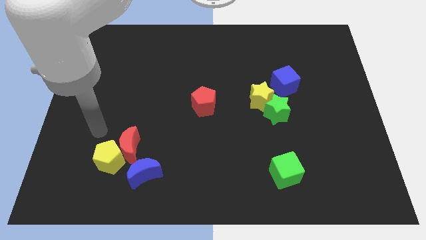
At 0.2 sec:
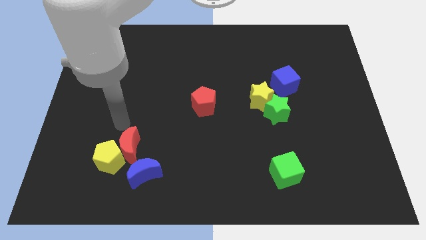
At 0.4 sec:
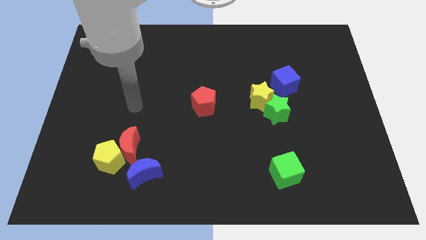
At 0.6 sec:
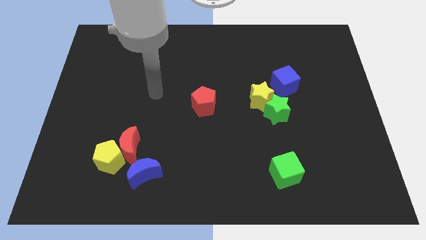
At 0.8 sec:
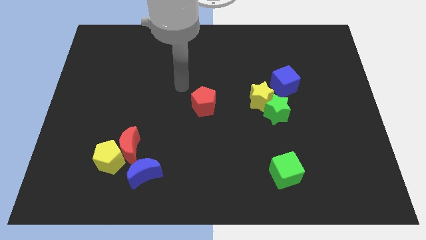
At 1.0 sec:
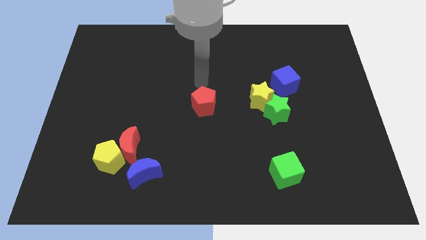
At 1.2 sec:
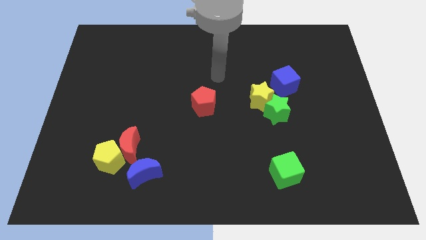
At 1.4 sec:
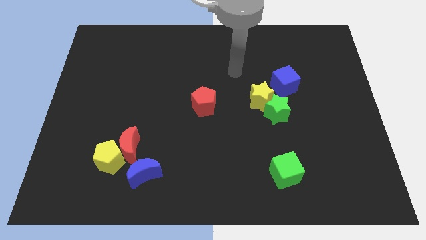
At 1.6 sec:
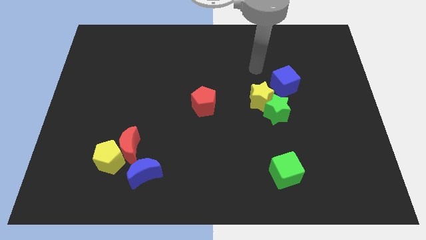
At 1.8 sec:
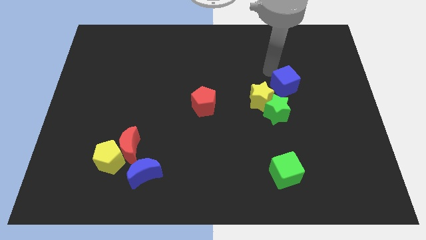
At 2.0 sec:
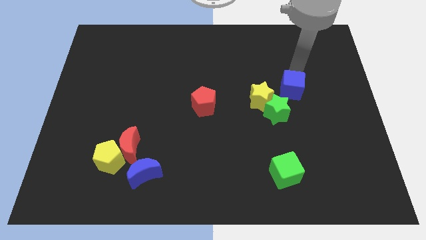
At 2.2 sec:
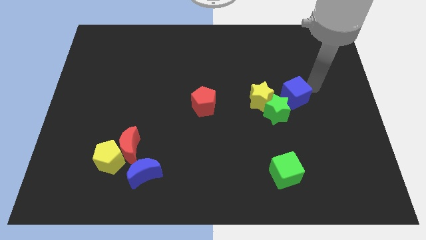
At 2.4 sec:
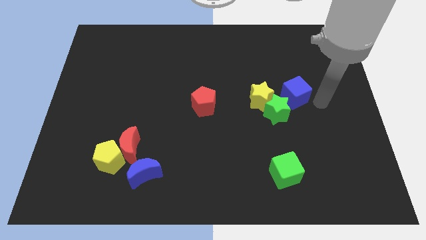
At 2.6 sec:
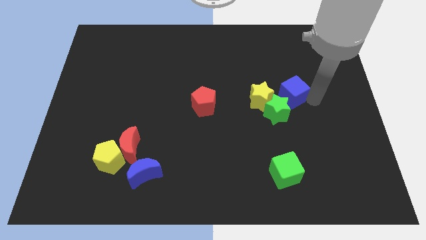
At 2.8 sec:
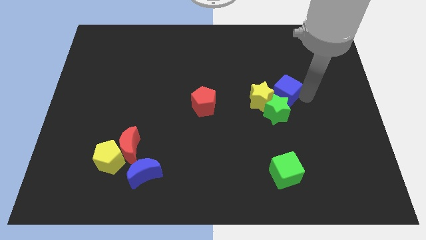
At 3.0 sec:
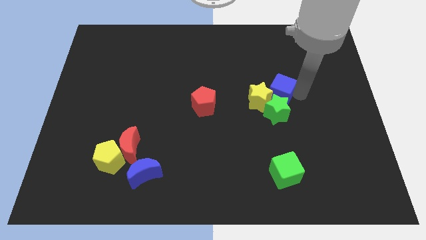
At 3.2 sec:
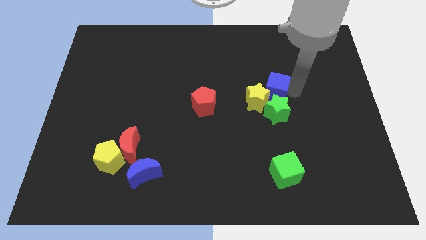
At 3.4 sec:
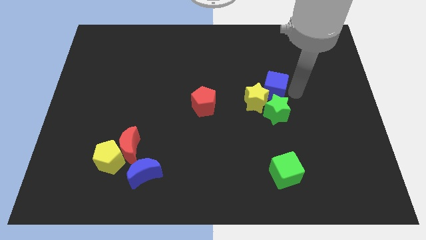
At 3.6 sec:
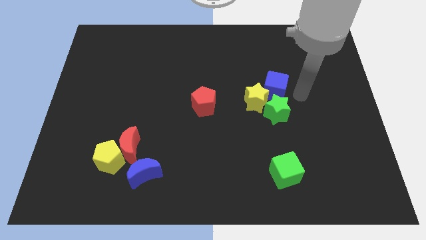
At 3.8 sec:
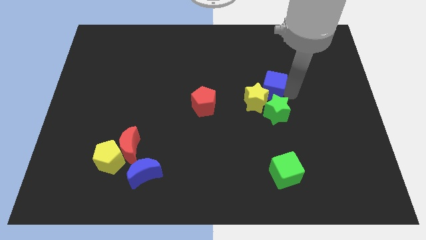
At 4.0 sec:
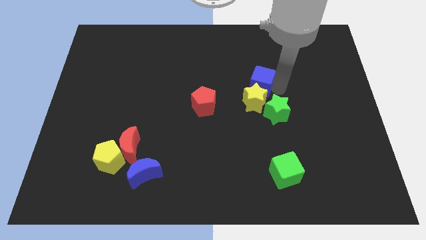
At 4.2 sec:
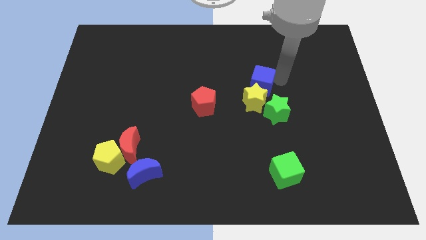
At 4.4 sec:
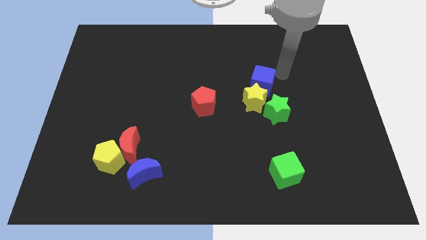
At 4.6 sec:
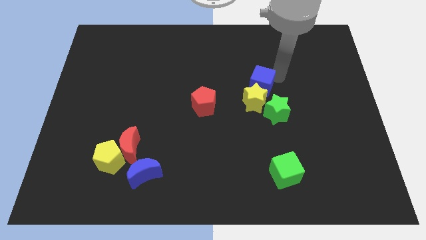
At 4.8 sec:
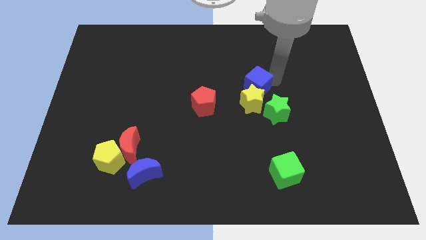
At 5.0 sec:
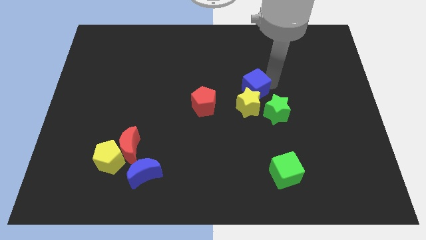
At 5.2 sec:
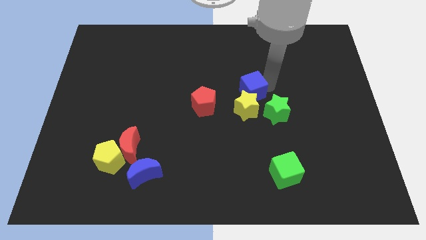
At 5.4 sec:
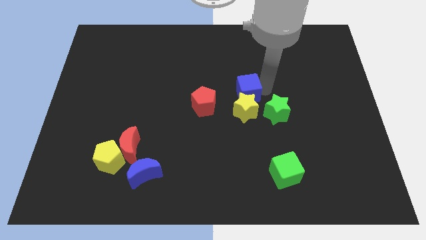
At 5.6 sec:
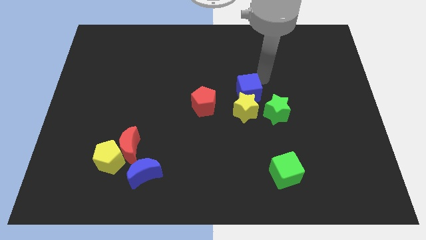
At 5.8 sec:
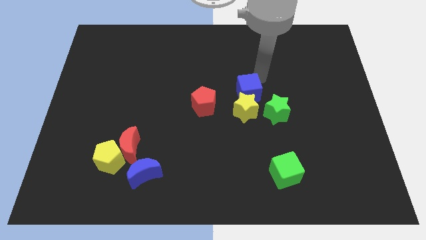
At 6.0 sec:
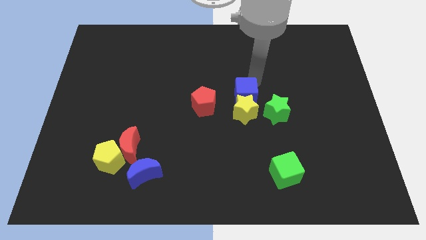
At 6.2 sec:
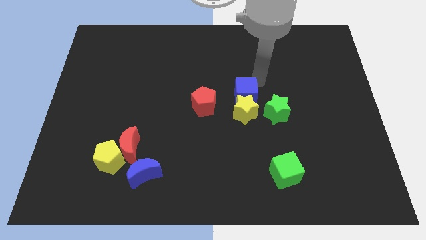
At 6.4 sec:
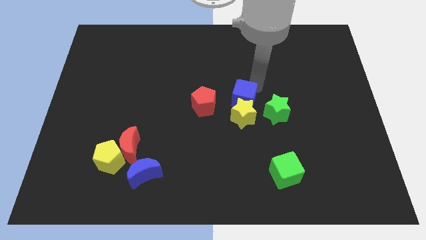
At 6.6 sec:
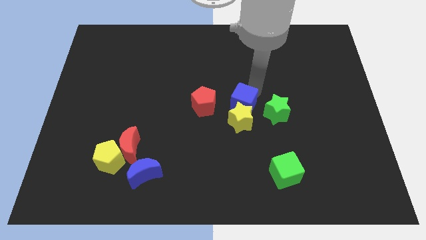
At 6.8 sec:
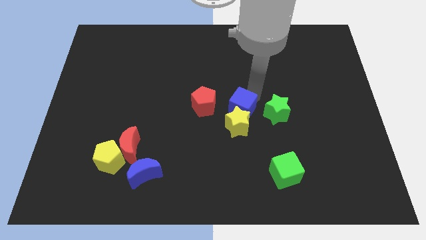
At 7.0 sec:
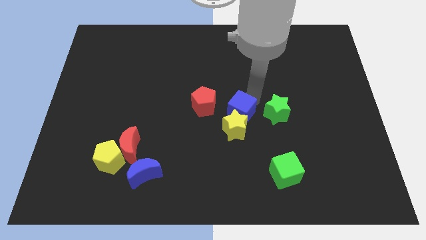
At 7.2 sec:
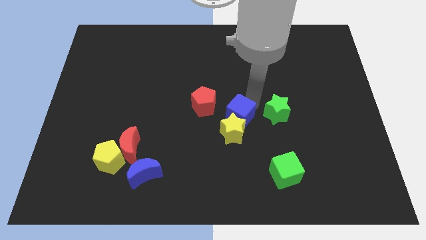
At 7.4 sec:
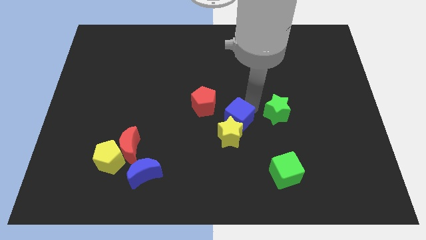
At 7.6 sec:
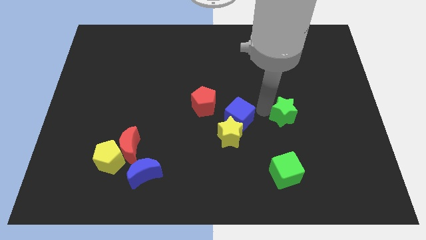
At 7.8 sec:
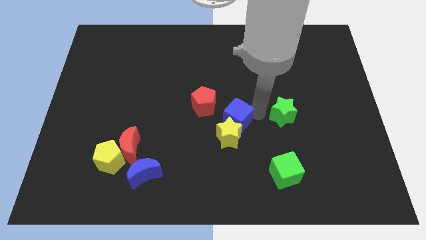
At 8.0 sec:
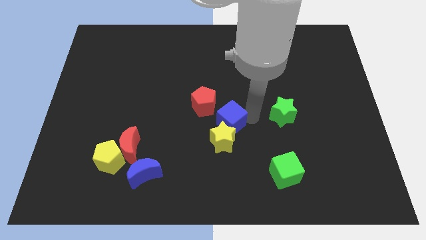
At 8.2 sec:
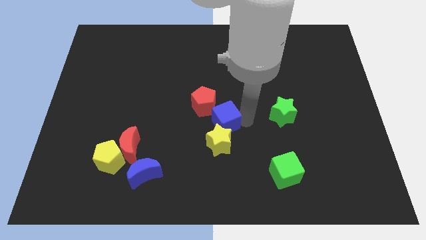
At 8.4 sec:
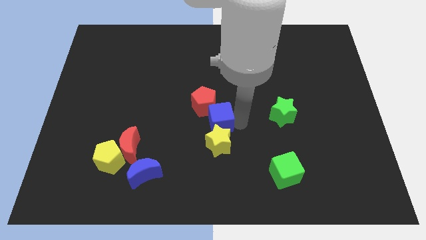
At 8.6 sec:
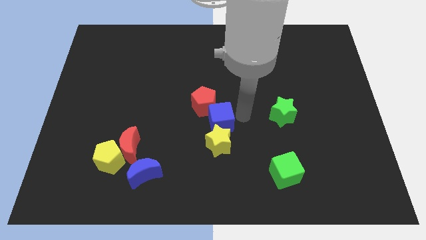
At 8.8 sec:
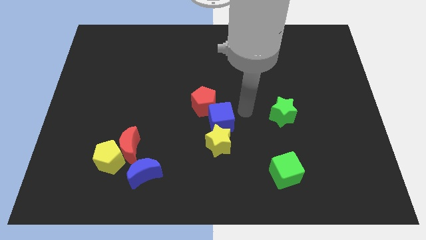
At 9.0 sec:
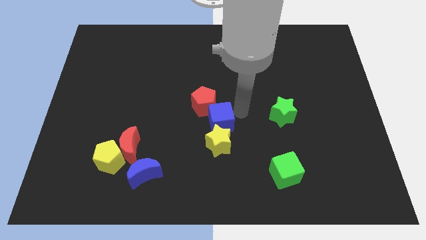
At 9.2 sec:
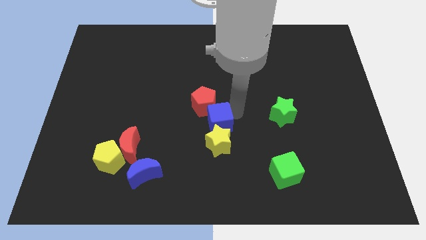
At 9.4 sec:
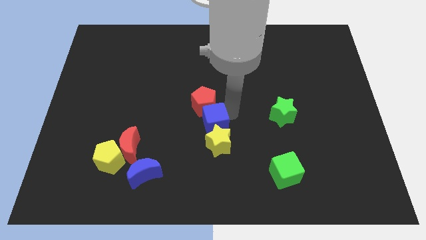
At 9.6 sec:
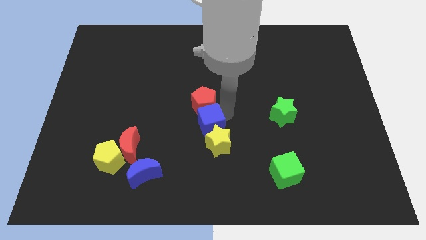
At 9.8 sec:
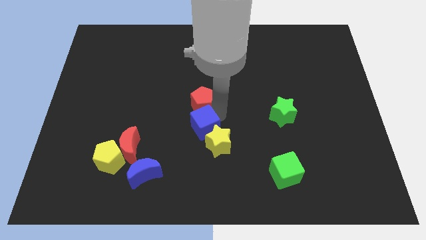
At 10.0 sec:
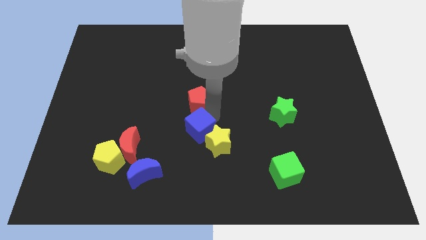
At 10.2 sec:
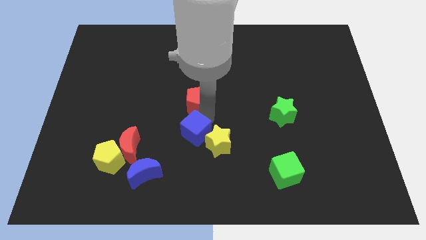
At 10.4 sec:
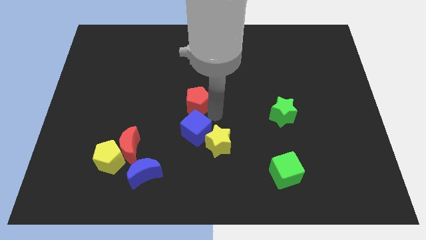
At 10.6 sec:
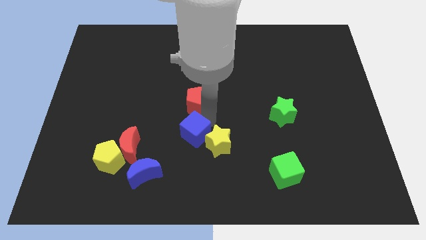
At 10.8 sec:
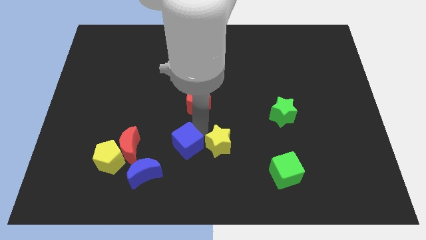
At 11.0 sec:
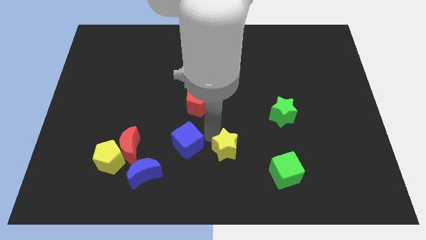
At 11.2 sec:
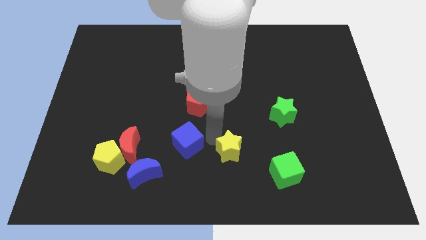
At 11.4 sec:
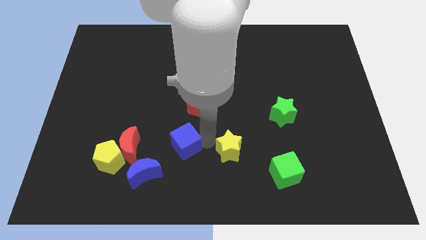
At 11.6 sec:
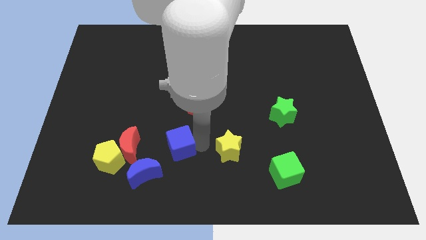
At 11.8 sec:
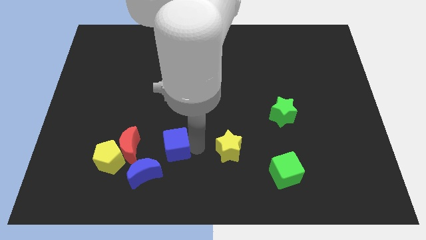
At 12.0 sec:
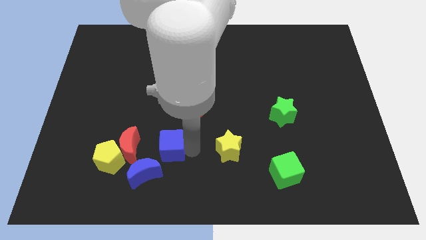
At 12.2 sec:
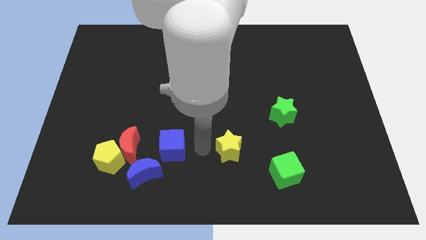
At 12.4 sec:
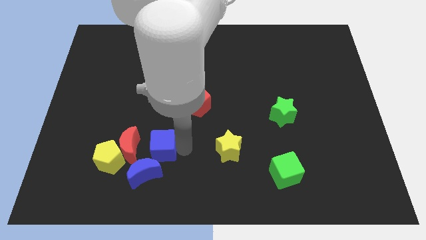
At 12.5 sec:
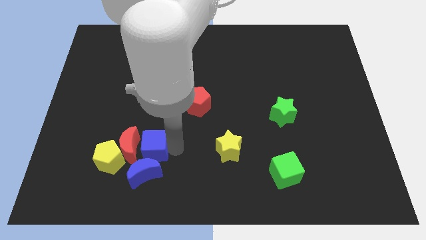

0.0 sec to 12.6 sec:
put the blue cube towards the red moon
